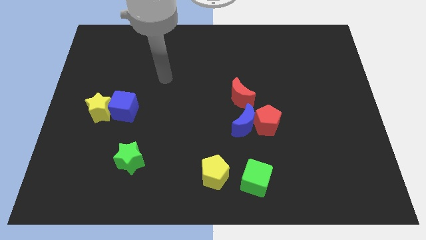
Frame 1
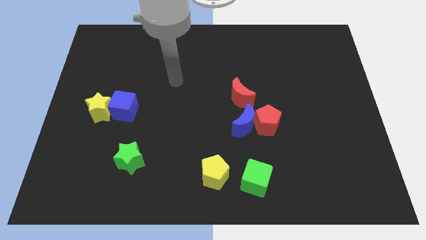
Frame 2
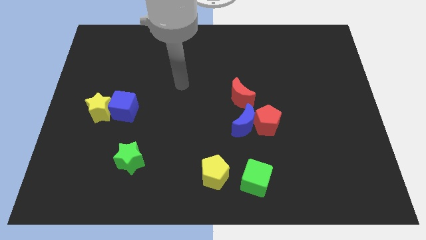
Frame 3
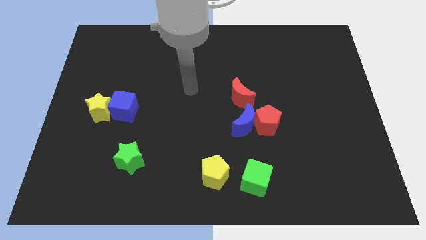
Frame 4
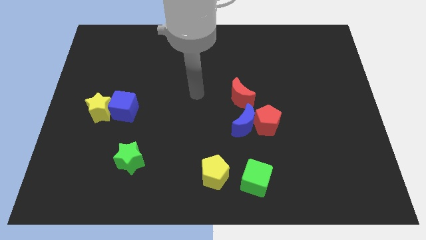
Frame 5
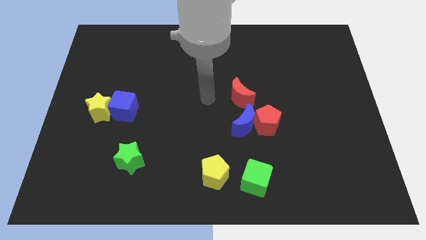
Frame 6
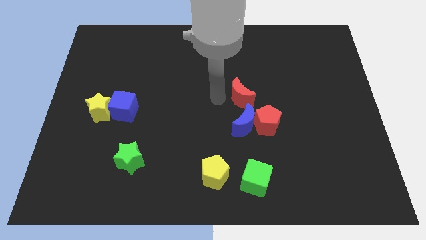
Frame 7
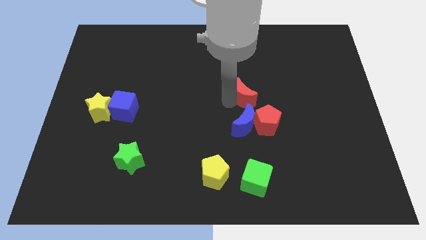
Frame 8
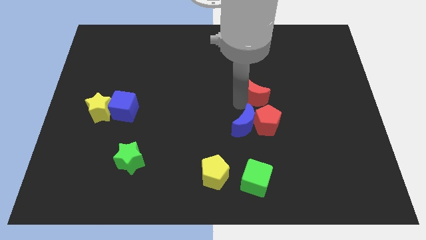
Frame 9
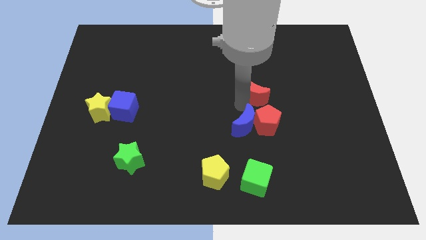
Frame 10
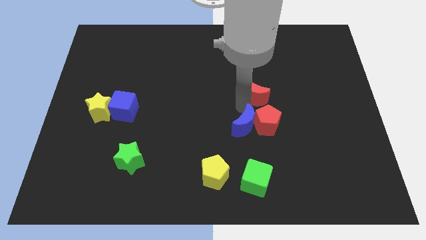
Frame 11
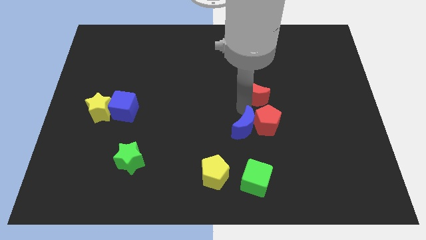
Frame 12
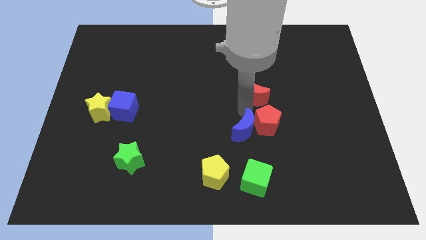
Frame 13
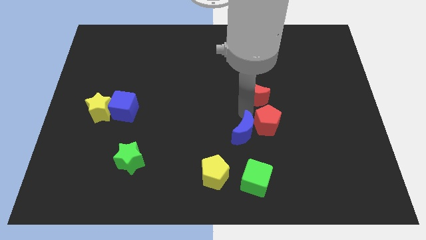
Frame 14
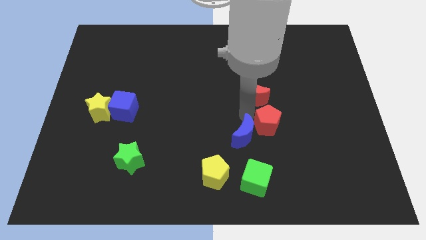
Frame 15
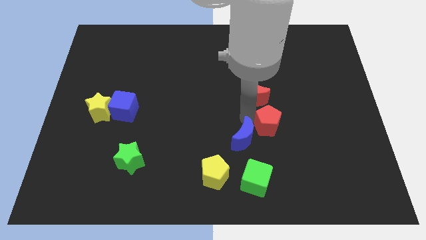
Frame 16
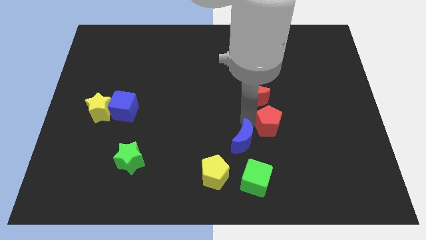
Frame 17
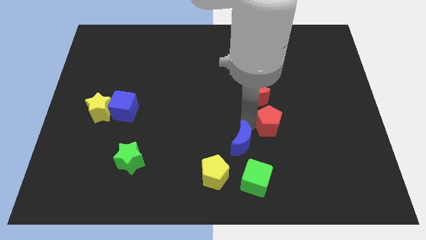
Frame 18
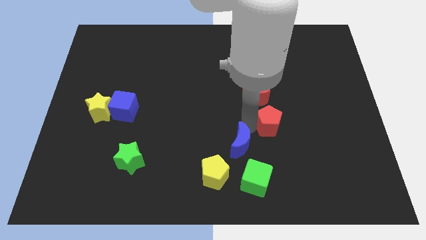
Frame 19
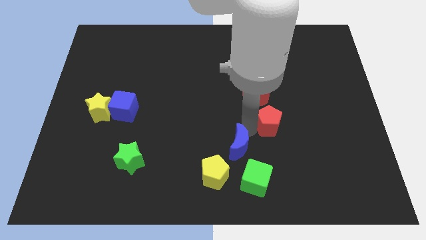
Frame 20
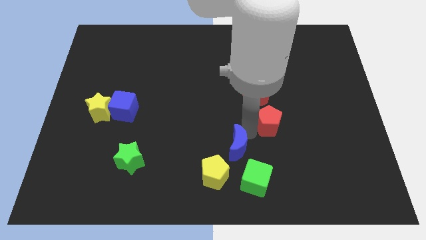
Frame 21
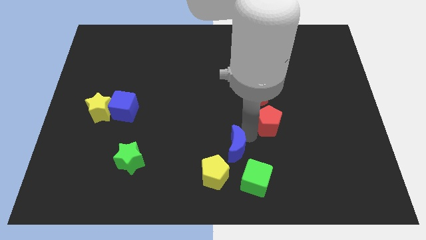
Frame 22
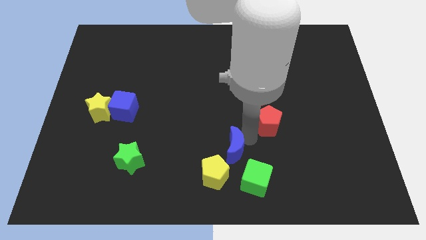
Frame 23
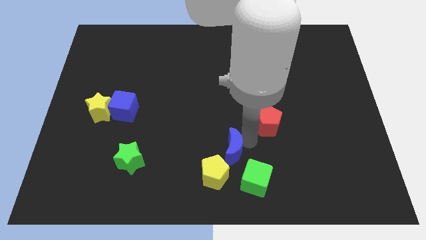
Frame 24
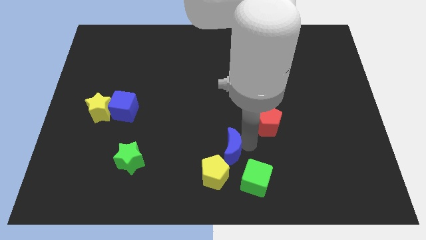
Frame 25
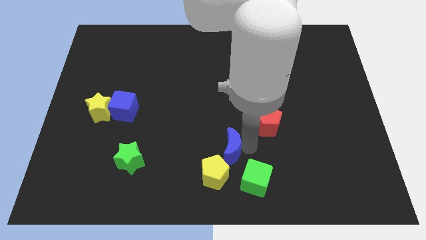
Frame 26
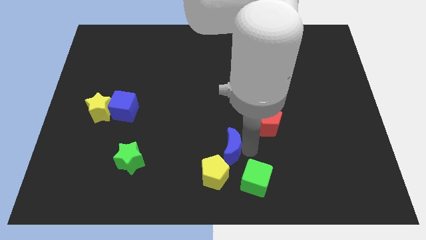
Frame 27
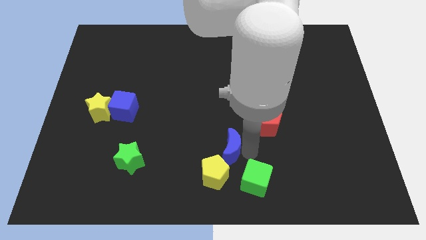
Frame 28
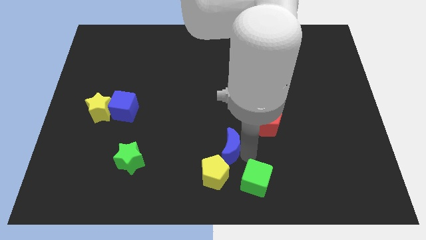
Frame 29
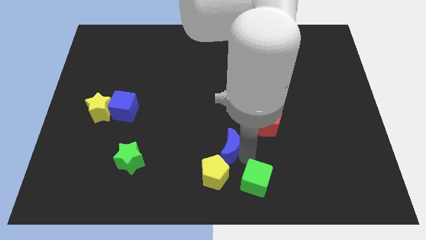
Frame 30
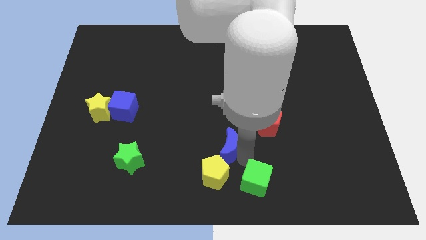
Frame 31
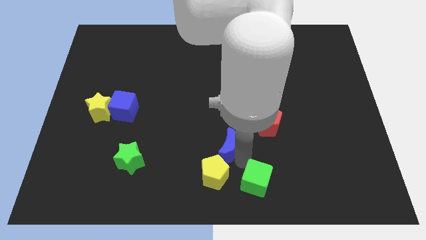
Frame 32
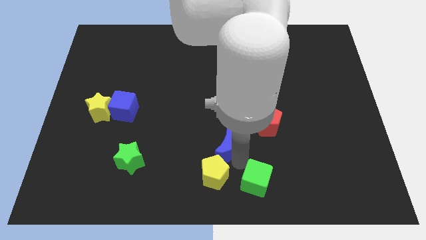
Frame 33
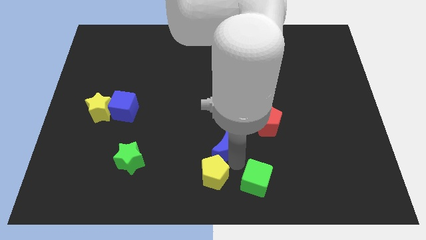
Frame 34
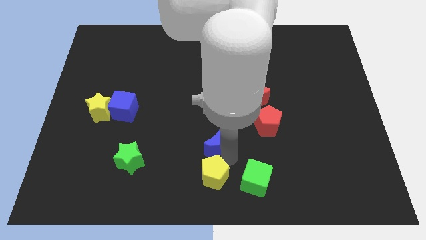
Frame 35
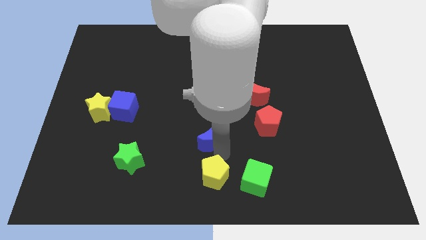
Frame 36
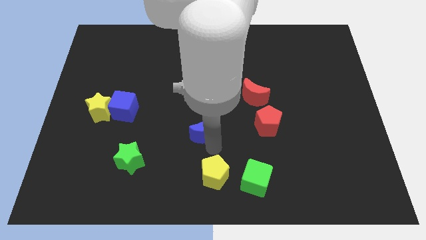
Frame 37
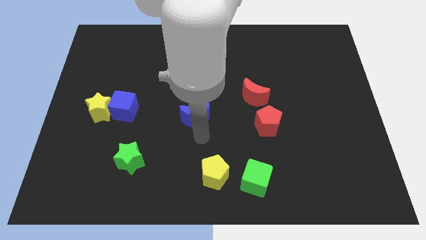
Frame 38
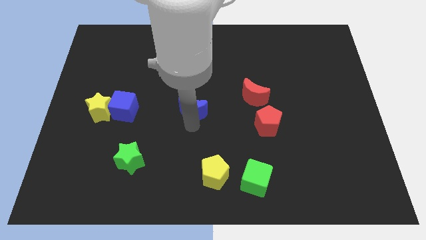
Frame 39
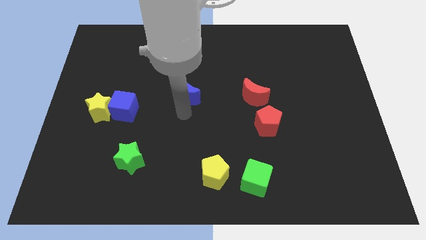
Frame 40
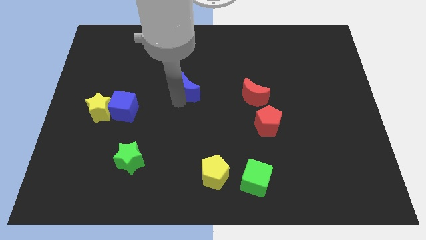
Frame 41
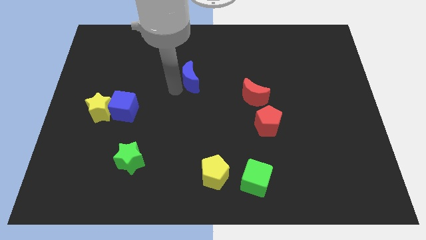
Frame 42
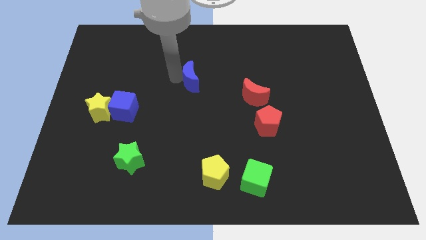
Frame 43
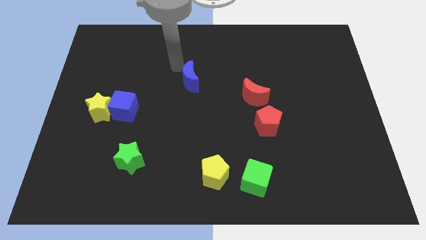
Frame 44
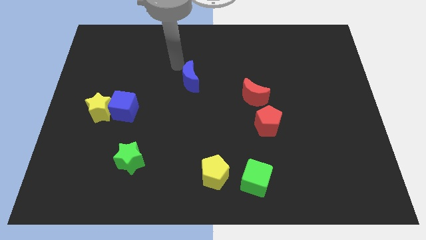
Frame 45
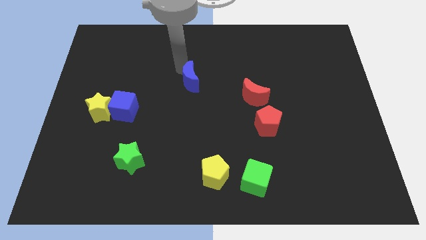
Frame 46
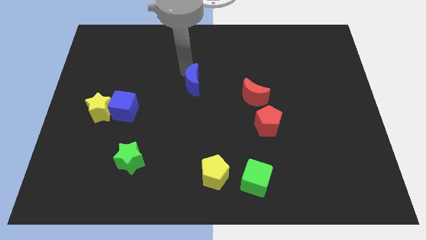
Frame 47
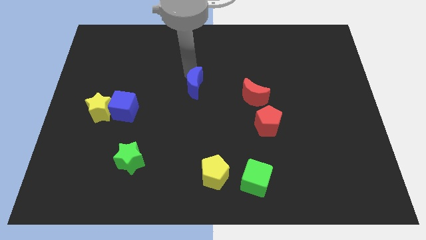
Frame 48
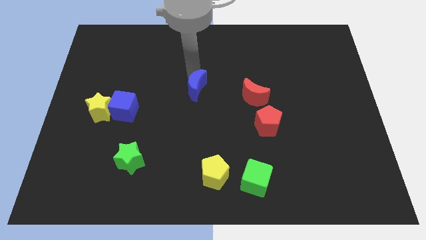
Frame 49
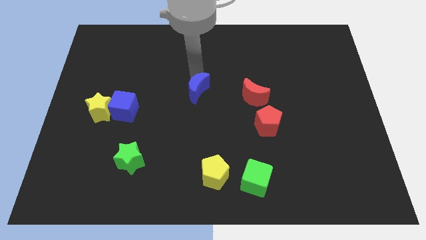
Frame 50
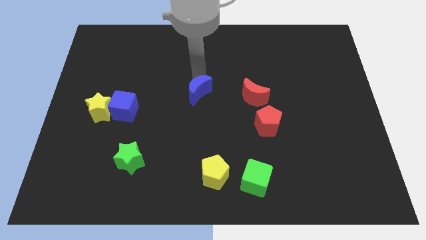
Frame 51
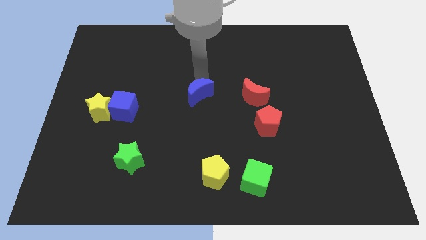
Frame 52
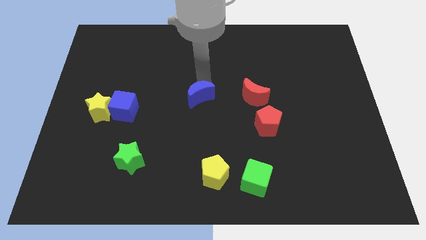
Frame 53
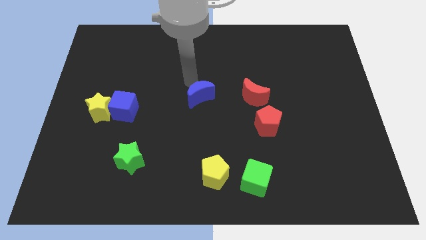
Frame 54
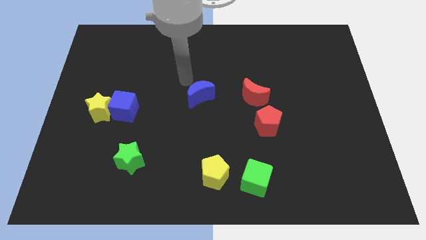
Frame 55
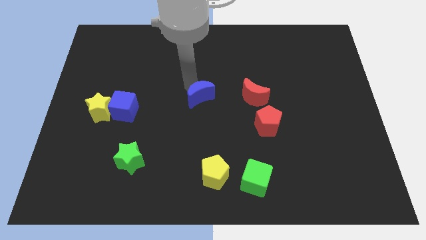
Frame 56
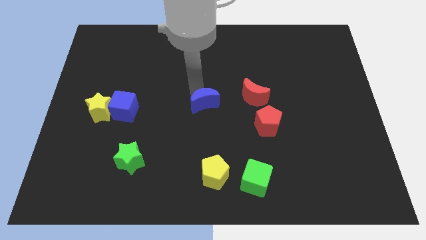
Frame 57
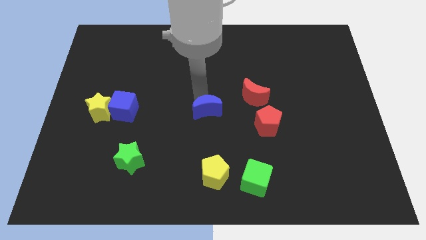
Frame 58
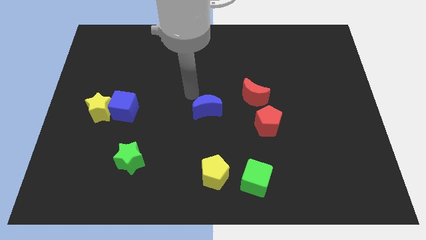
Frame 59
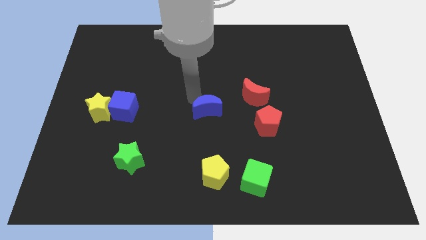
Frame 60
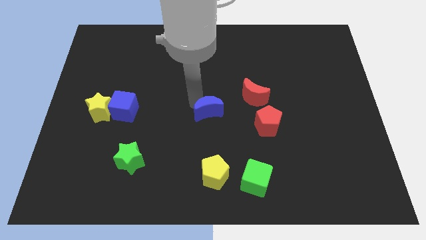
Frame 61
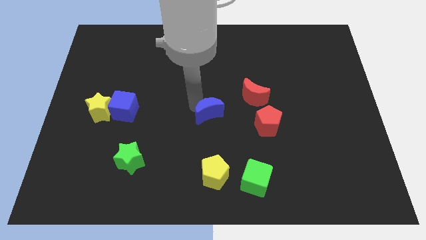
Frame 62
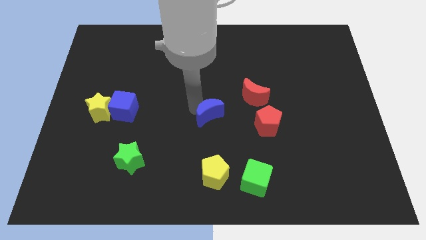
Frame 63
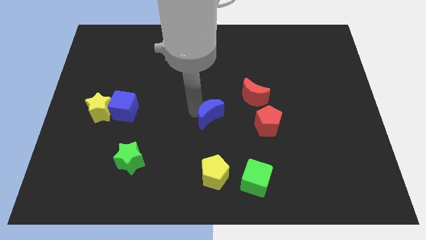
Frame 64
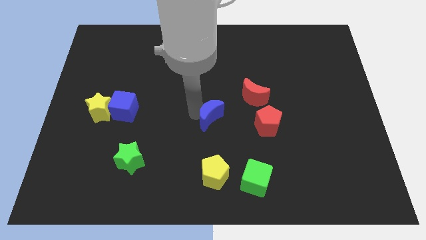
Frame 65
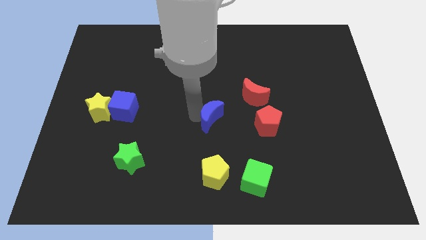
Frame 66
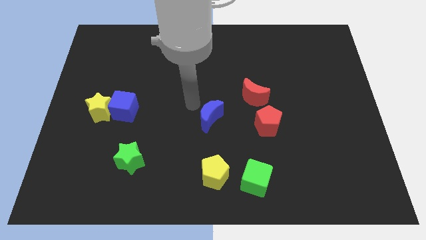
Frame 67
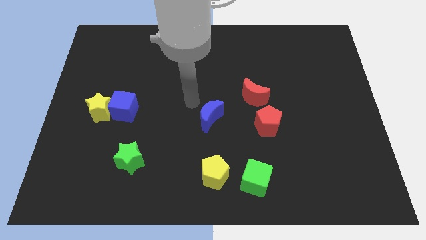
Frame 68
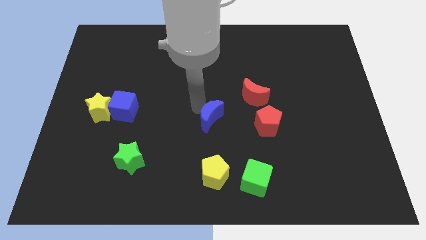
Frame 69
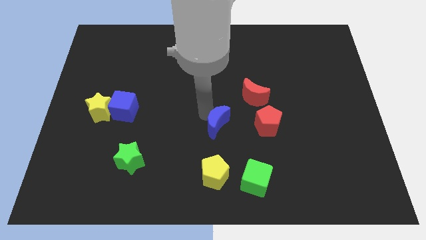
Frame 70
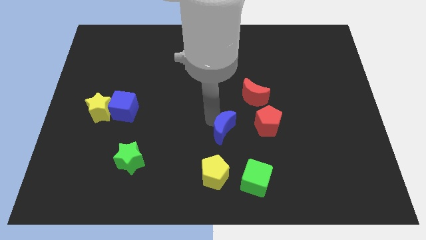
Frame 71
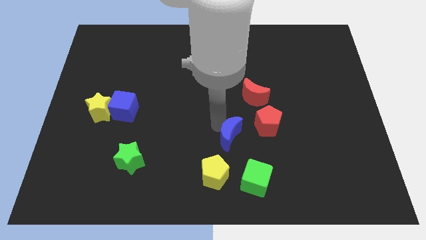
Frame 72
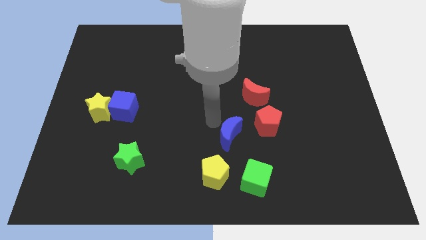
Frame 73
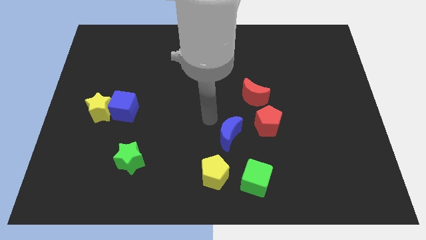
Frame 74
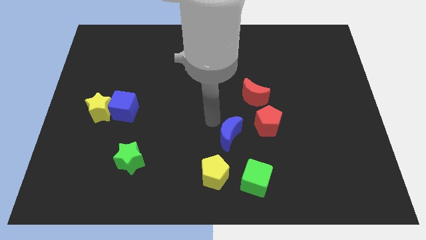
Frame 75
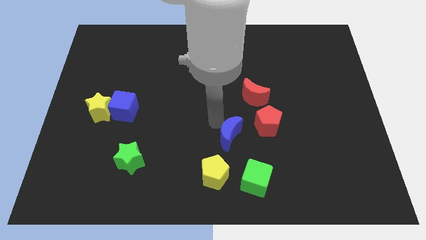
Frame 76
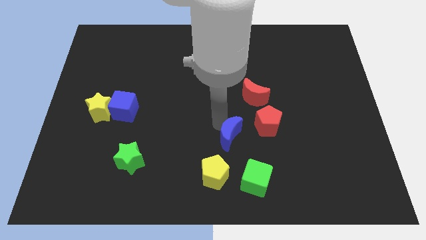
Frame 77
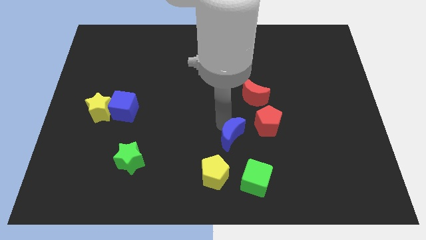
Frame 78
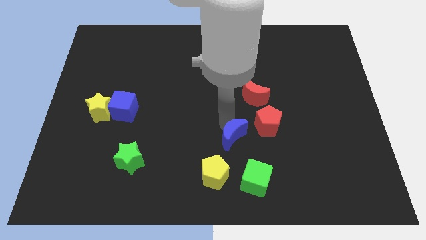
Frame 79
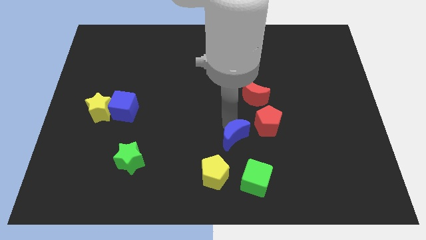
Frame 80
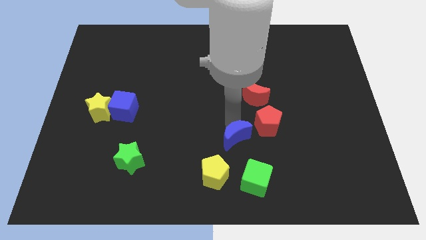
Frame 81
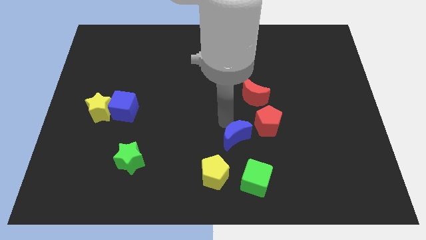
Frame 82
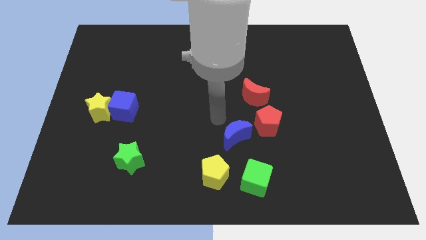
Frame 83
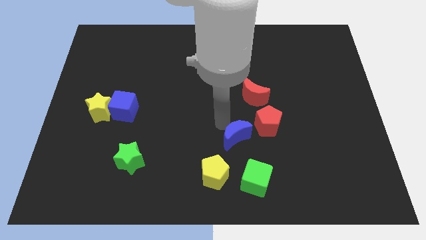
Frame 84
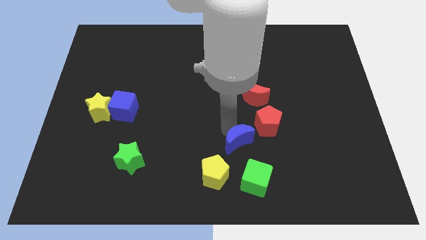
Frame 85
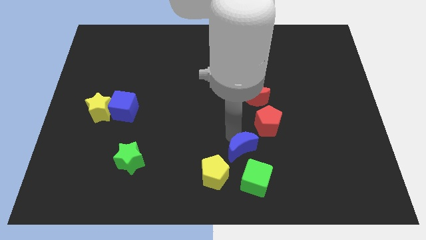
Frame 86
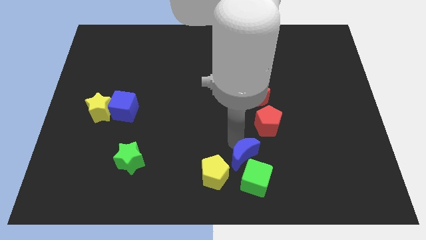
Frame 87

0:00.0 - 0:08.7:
move the blue moon right of the yellow pentagon
